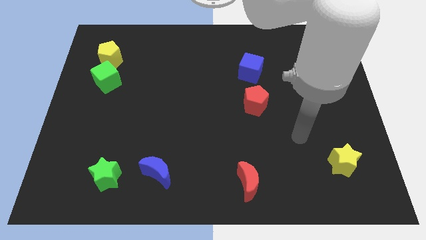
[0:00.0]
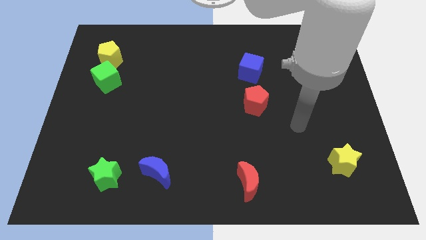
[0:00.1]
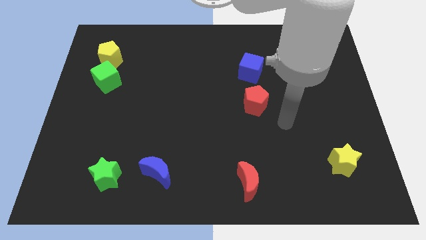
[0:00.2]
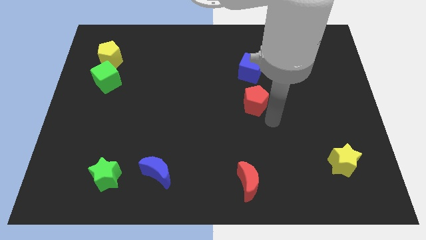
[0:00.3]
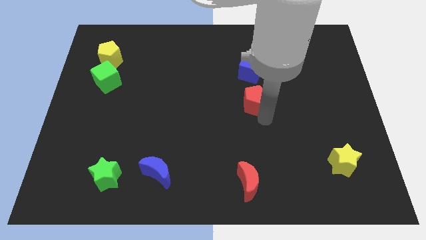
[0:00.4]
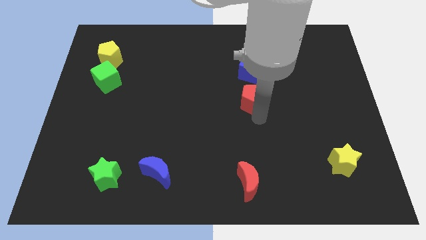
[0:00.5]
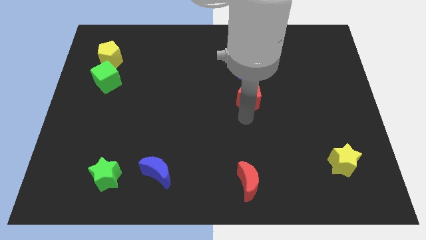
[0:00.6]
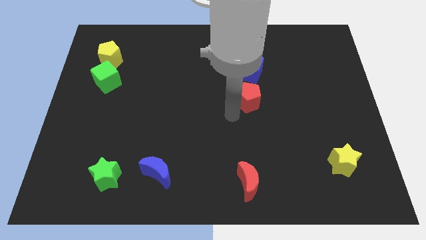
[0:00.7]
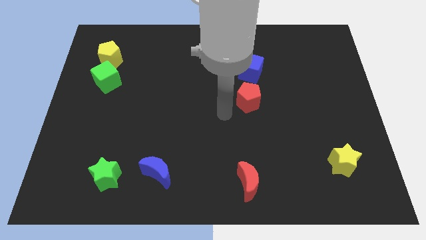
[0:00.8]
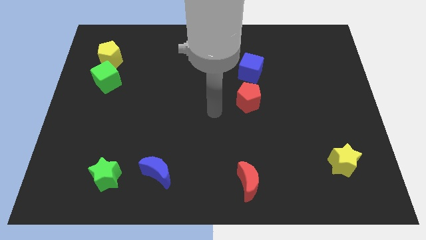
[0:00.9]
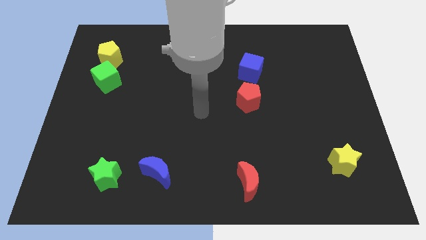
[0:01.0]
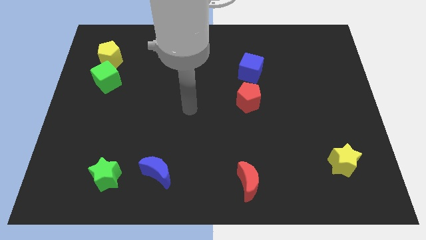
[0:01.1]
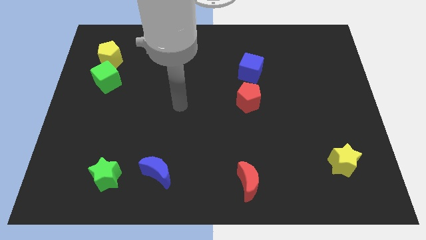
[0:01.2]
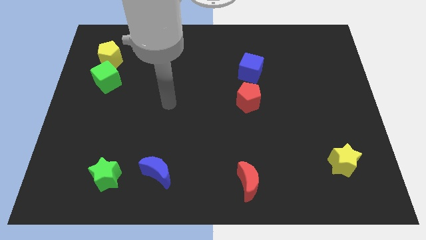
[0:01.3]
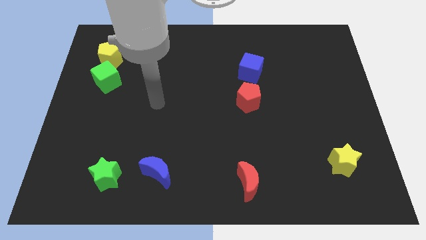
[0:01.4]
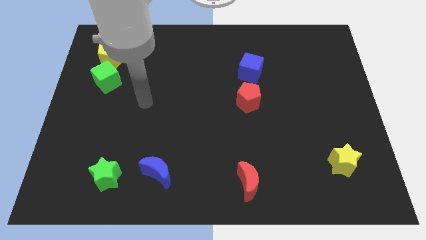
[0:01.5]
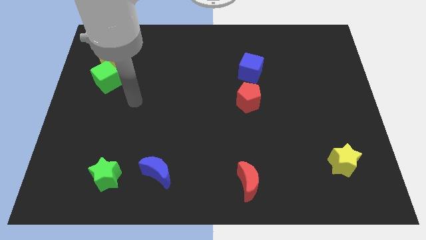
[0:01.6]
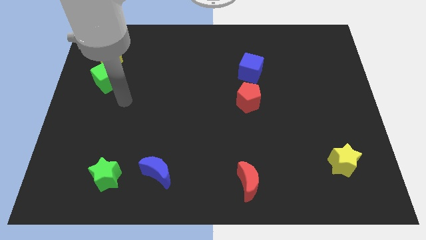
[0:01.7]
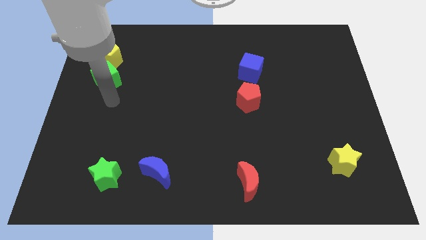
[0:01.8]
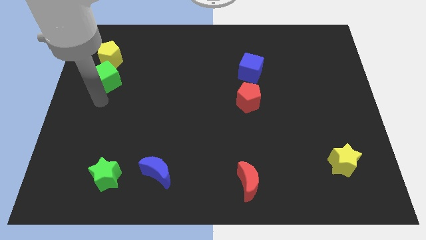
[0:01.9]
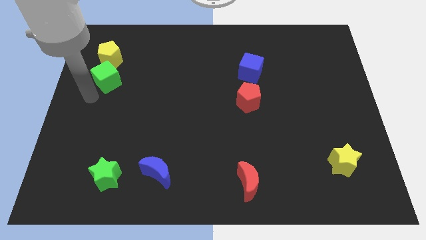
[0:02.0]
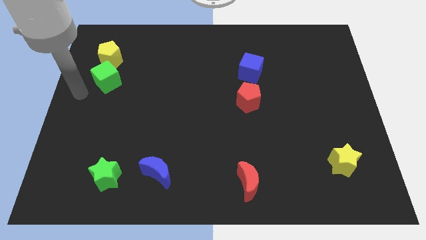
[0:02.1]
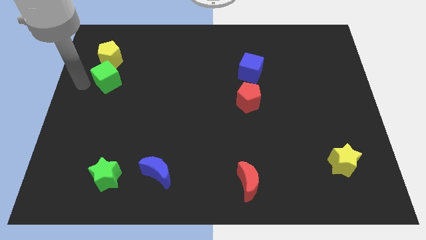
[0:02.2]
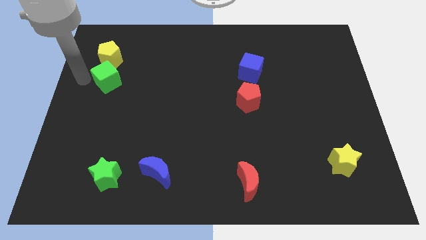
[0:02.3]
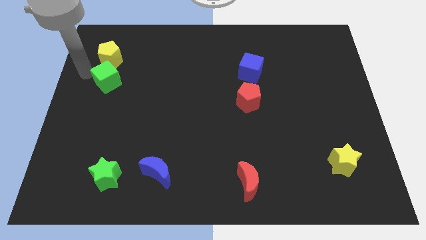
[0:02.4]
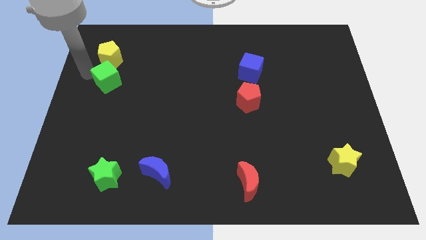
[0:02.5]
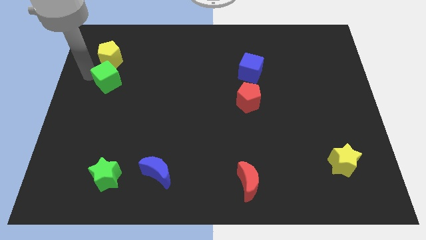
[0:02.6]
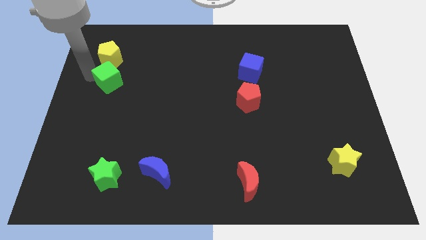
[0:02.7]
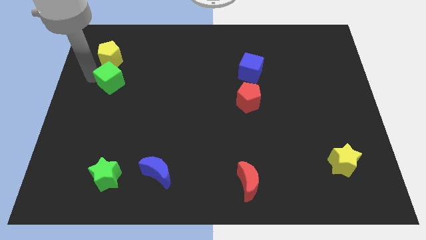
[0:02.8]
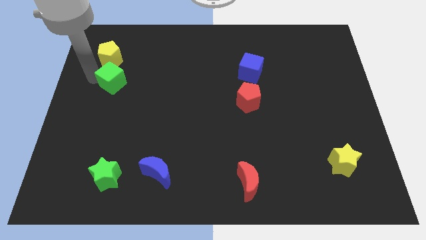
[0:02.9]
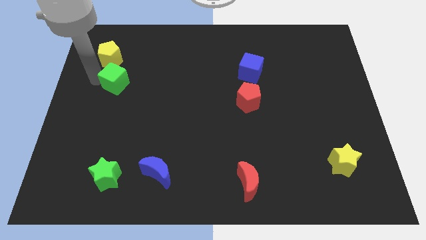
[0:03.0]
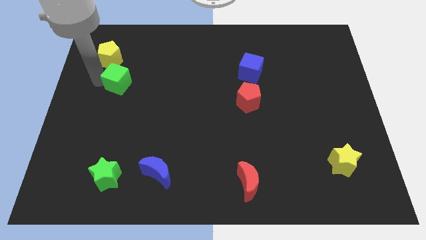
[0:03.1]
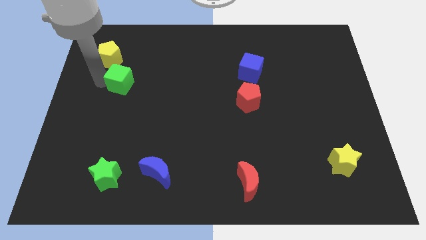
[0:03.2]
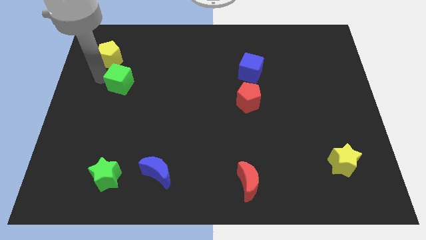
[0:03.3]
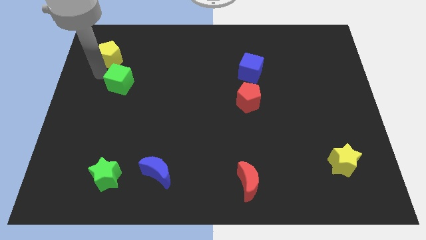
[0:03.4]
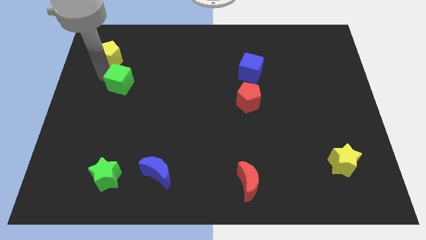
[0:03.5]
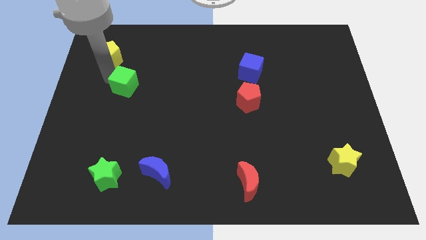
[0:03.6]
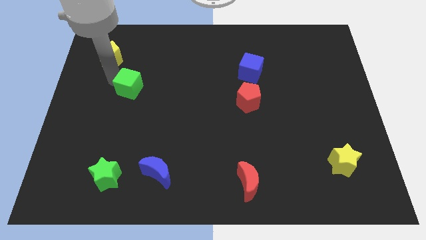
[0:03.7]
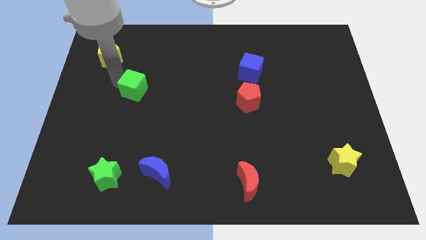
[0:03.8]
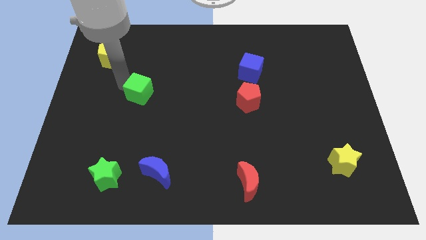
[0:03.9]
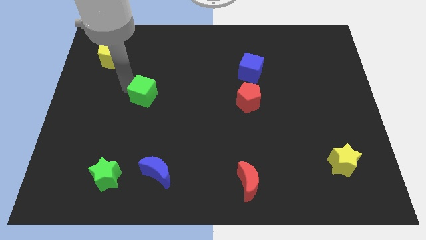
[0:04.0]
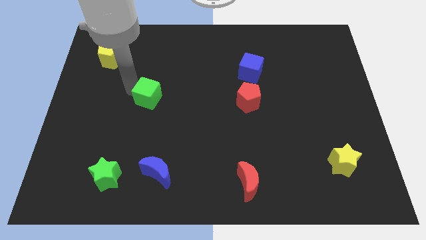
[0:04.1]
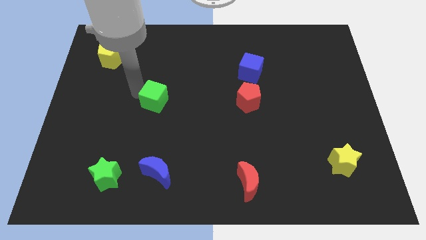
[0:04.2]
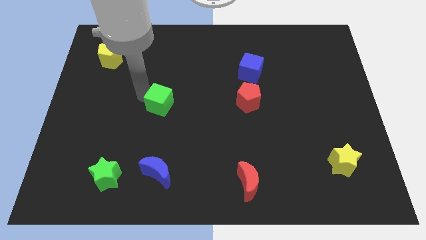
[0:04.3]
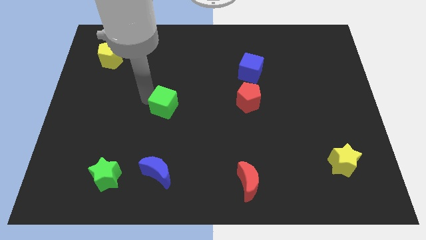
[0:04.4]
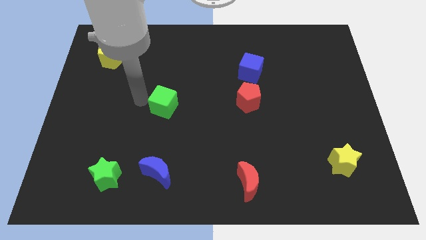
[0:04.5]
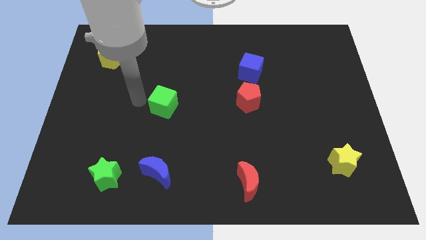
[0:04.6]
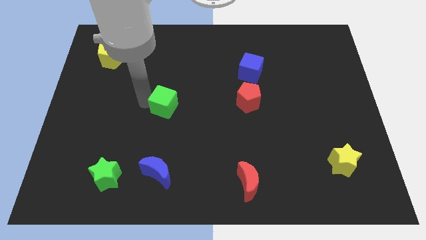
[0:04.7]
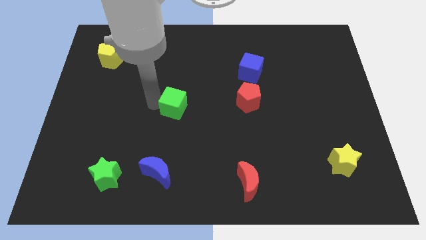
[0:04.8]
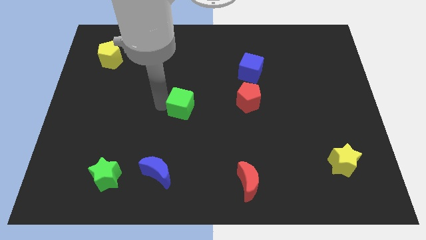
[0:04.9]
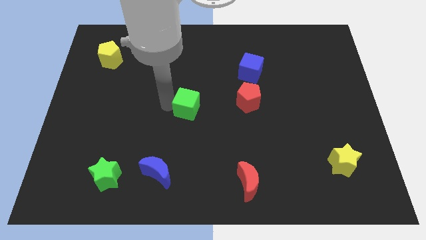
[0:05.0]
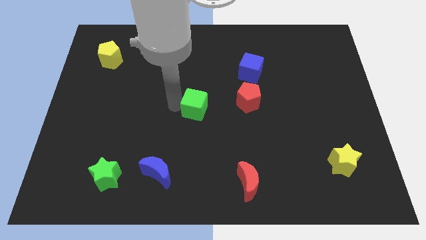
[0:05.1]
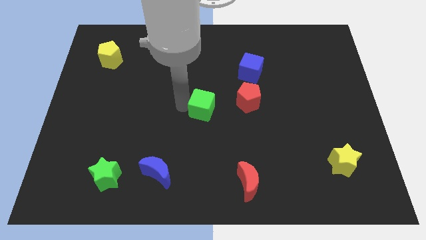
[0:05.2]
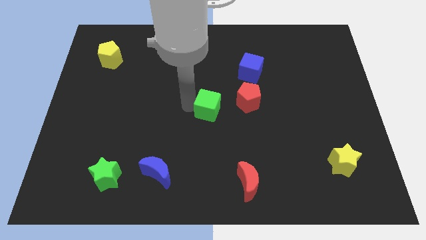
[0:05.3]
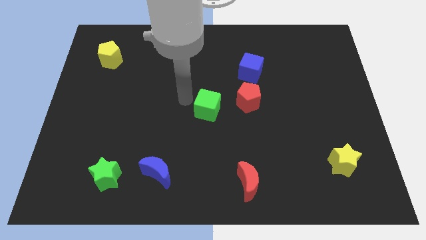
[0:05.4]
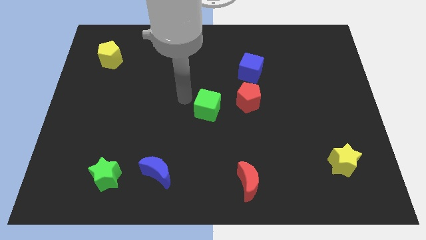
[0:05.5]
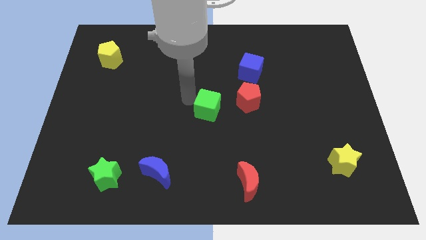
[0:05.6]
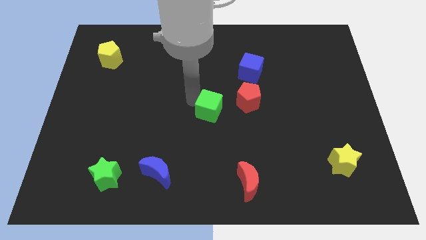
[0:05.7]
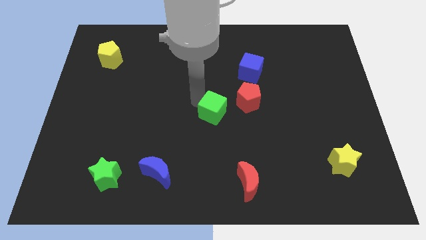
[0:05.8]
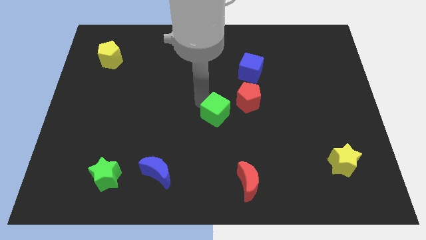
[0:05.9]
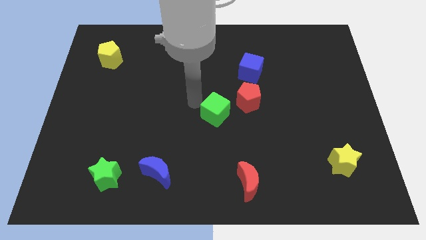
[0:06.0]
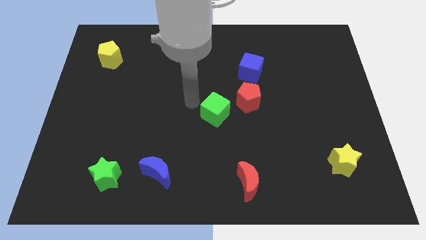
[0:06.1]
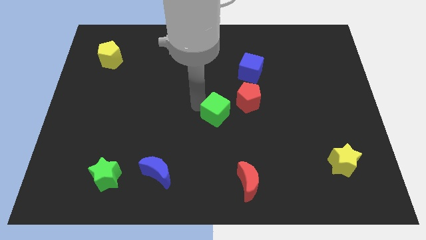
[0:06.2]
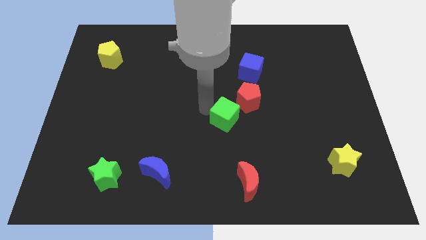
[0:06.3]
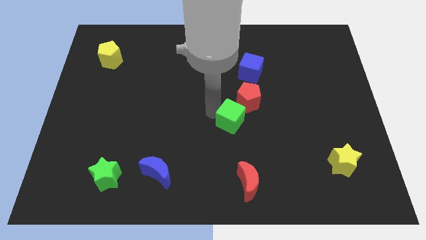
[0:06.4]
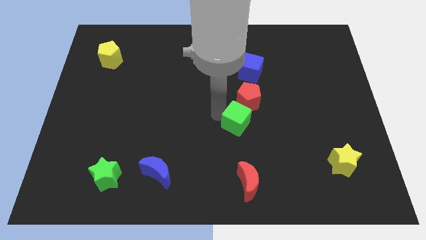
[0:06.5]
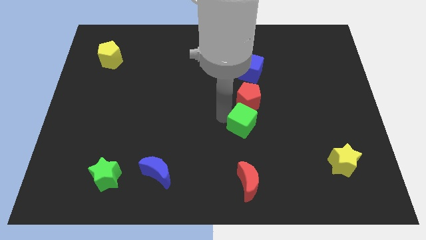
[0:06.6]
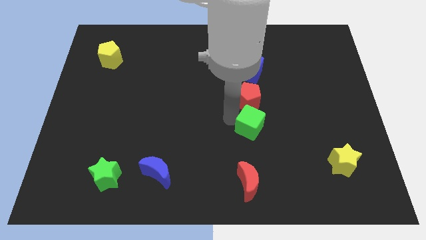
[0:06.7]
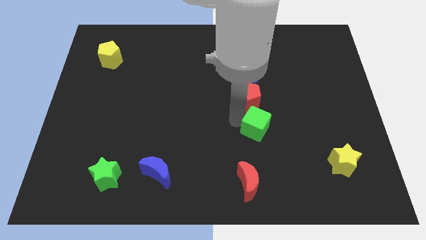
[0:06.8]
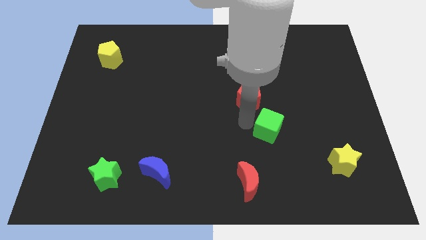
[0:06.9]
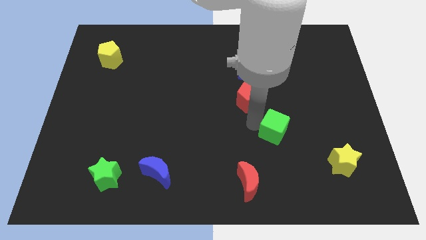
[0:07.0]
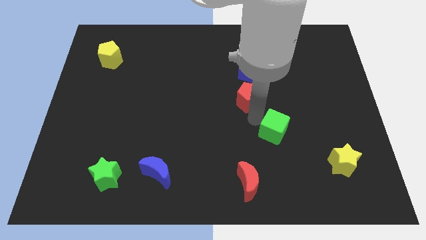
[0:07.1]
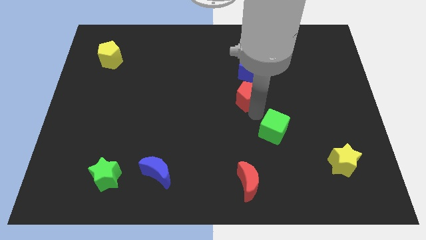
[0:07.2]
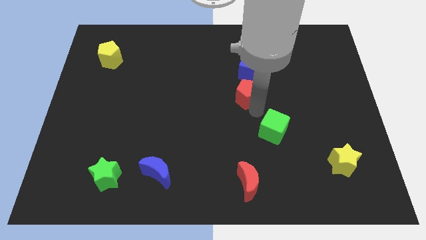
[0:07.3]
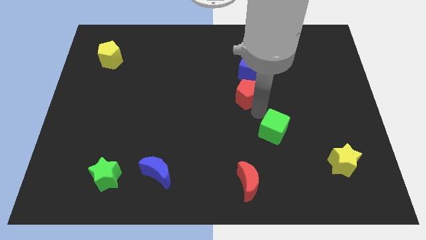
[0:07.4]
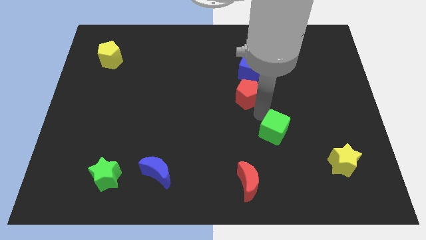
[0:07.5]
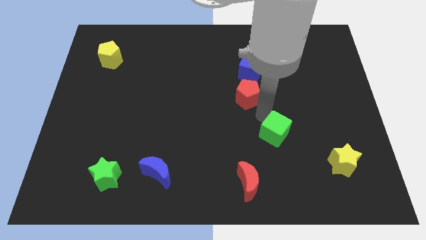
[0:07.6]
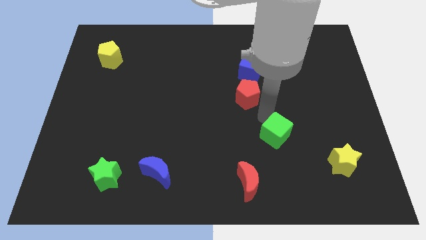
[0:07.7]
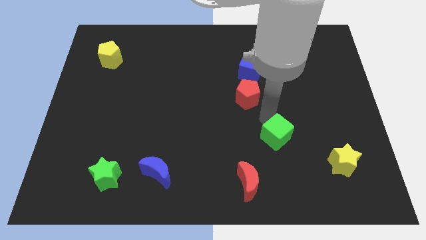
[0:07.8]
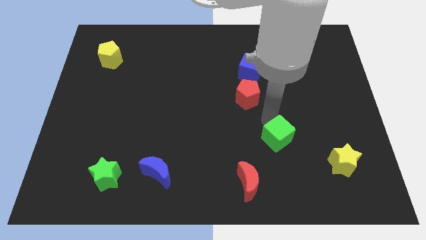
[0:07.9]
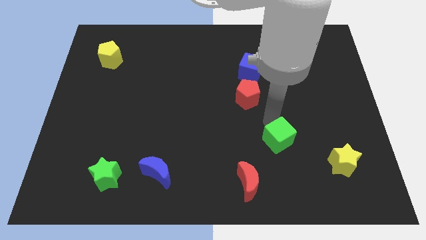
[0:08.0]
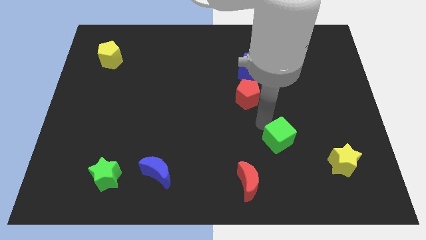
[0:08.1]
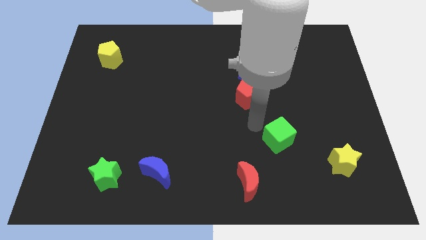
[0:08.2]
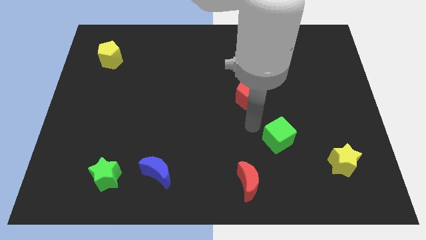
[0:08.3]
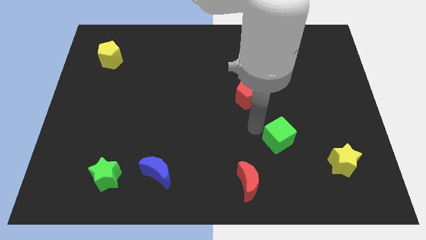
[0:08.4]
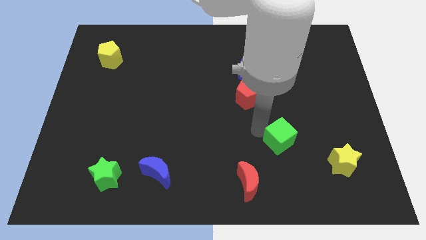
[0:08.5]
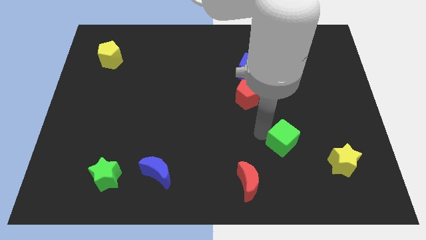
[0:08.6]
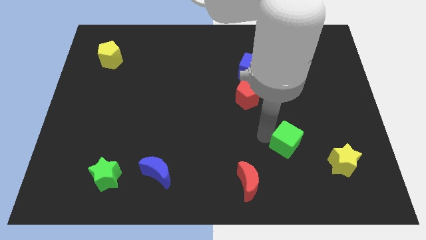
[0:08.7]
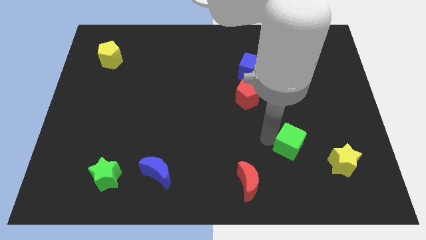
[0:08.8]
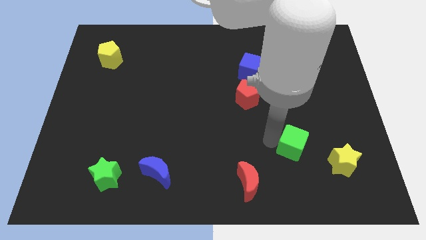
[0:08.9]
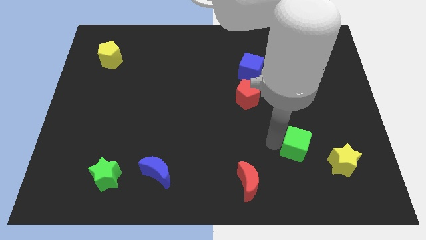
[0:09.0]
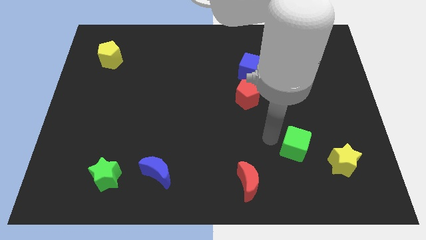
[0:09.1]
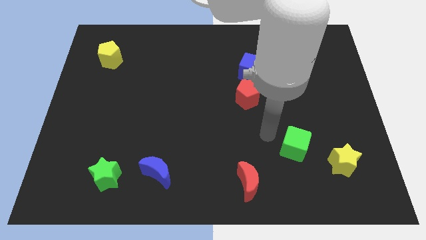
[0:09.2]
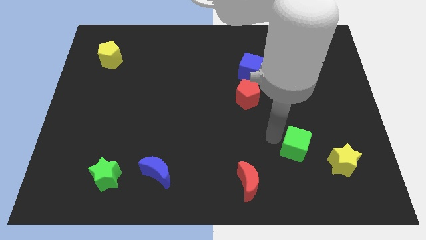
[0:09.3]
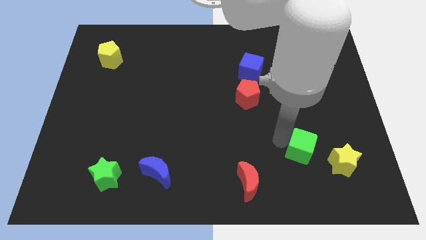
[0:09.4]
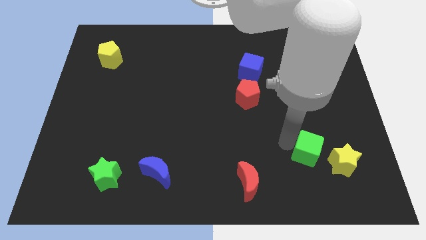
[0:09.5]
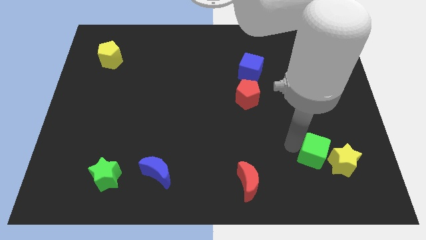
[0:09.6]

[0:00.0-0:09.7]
put the green cube close to the yellow star
